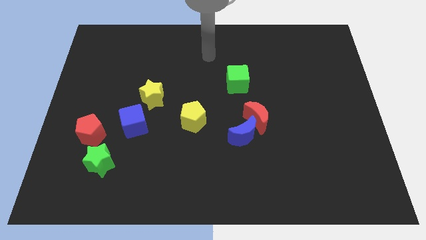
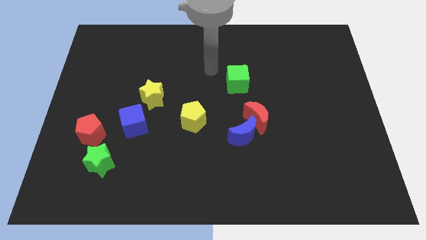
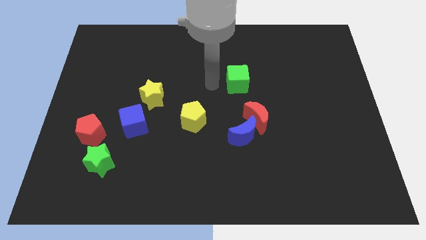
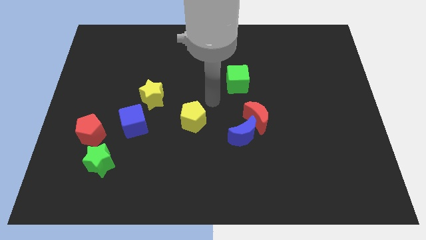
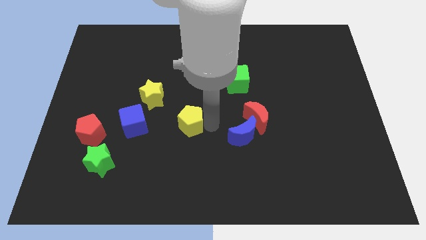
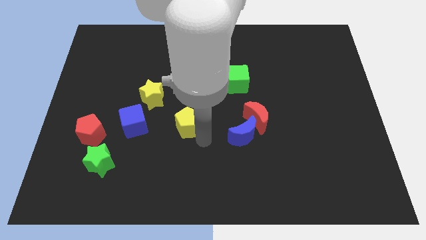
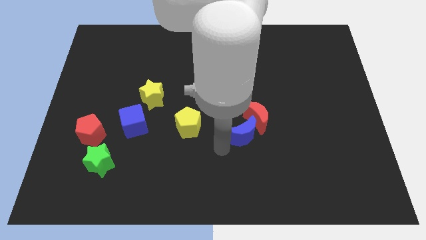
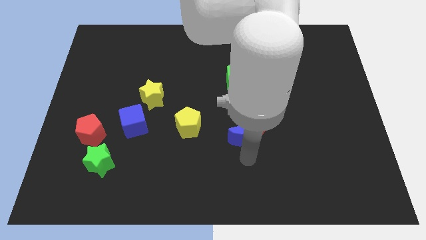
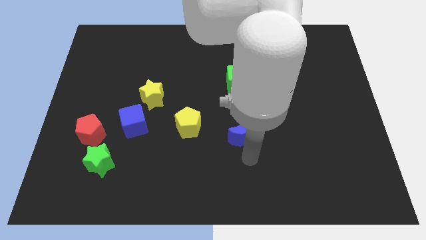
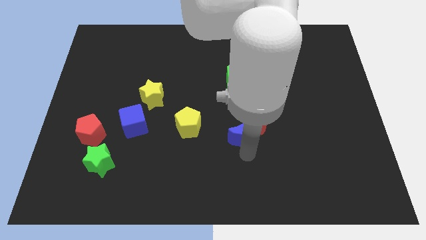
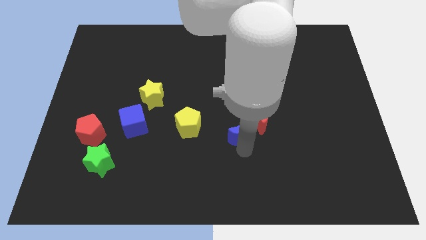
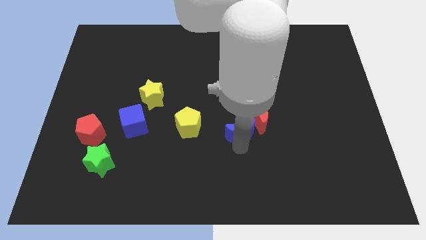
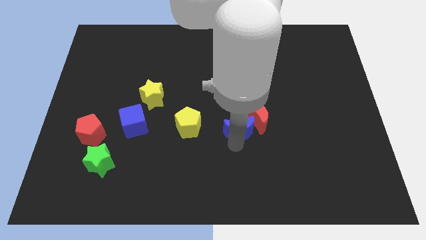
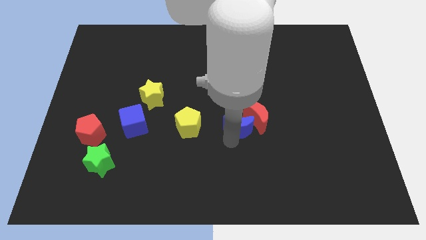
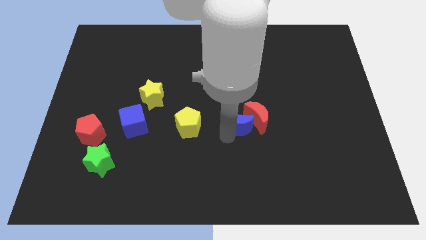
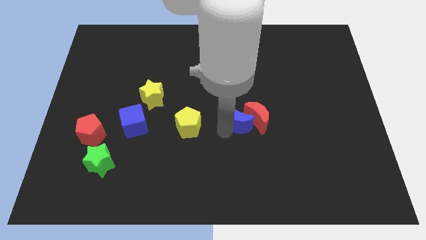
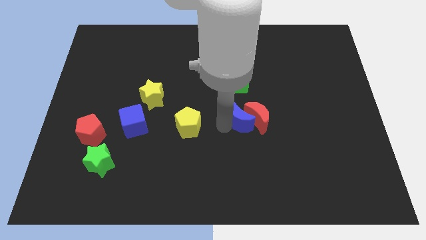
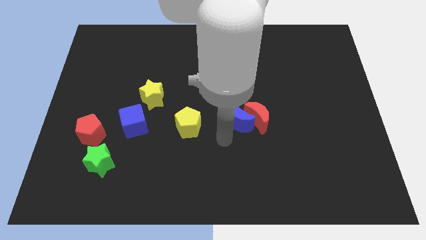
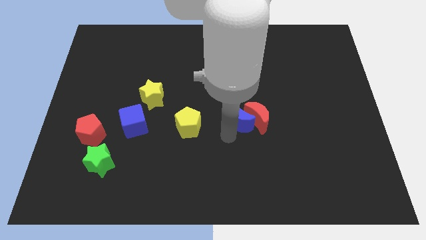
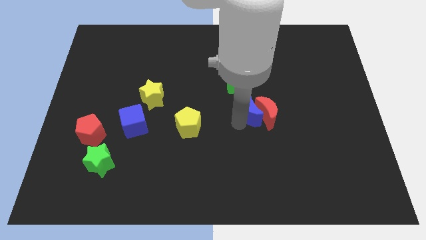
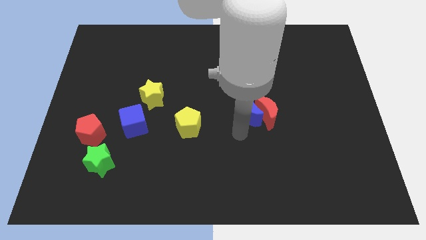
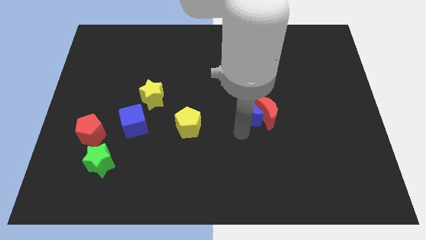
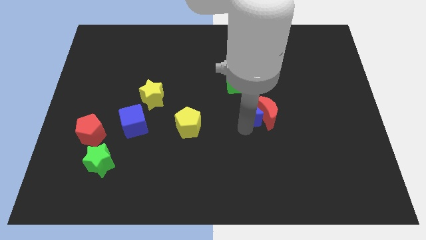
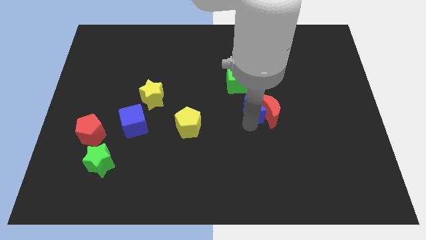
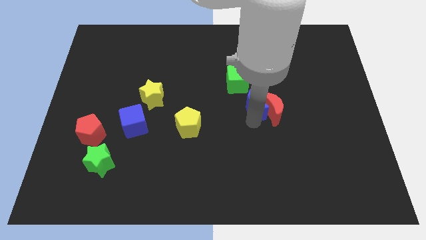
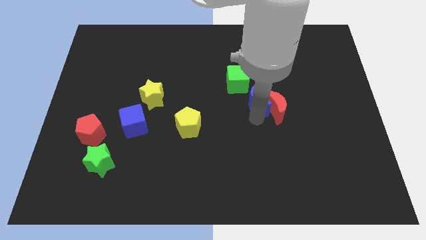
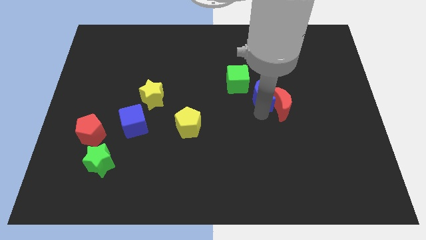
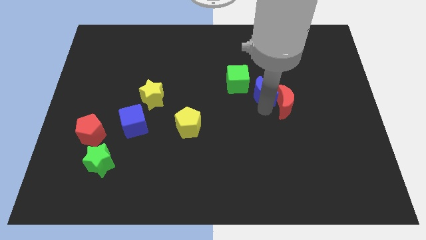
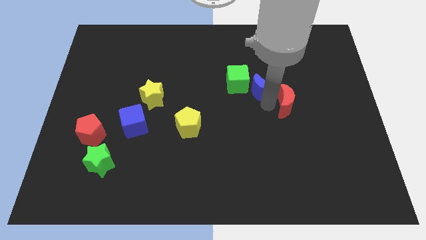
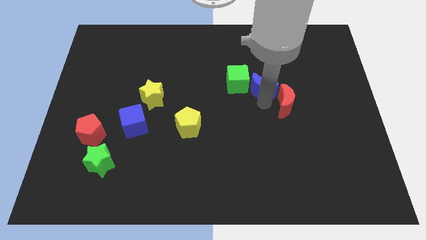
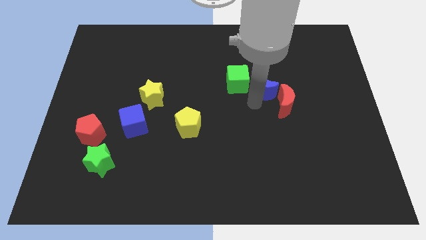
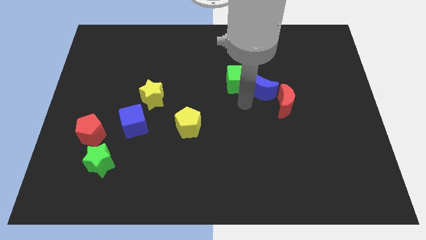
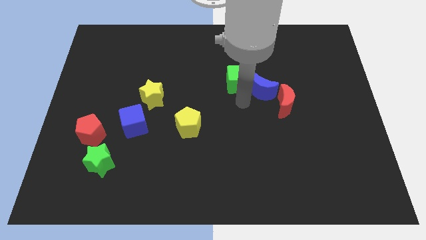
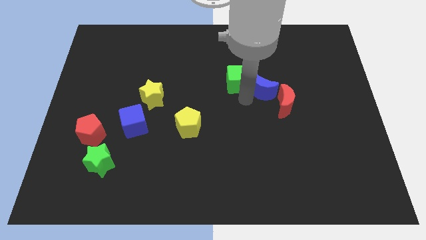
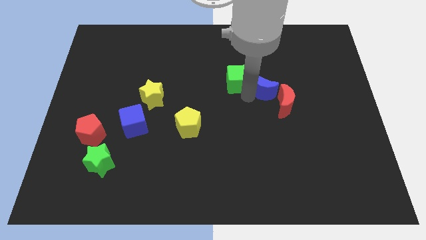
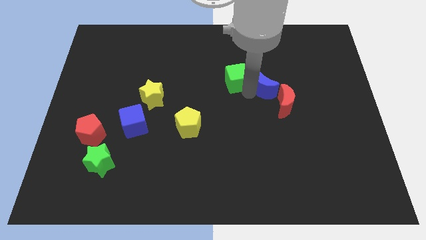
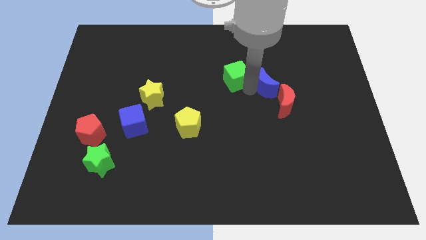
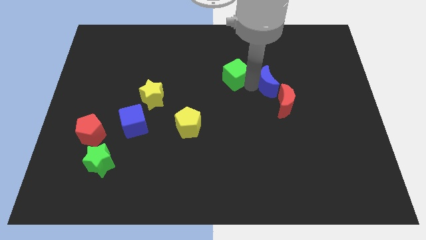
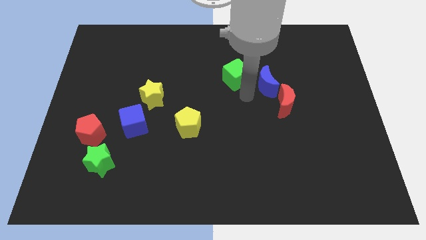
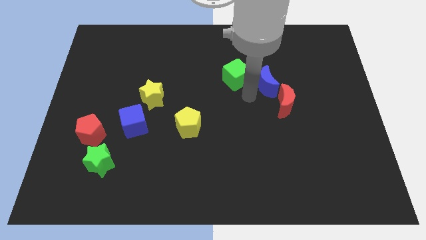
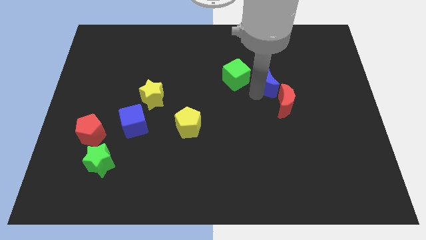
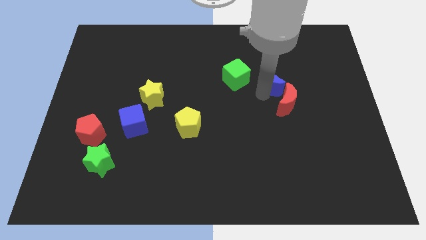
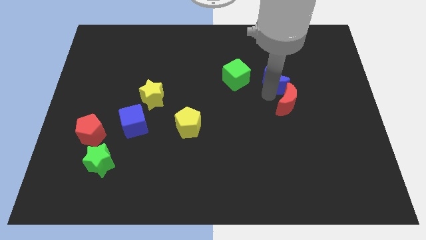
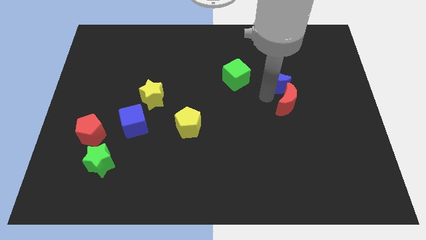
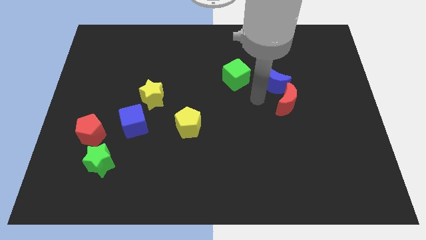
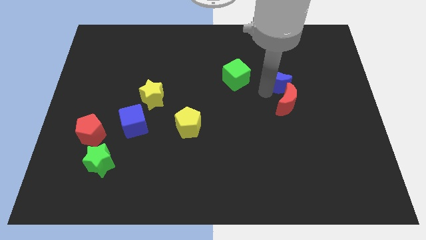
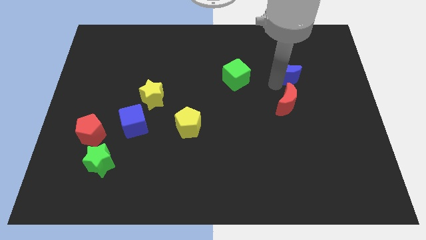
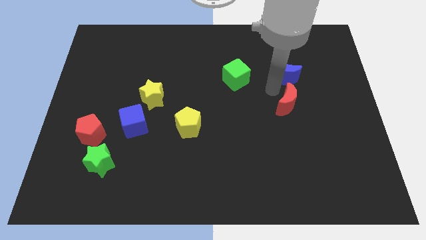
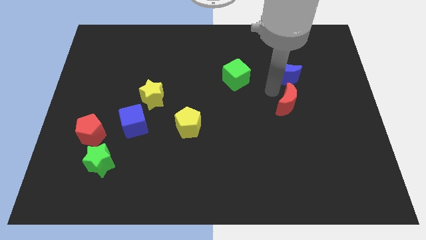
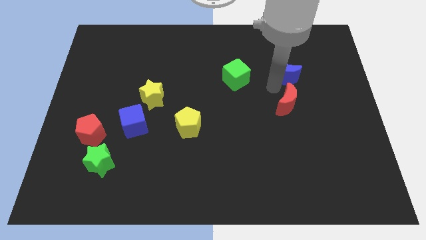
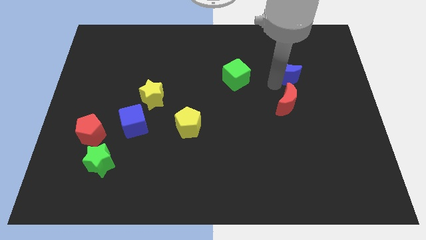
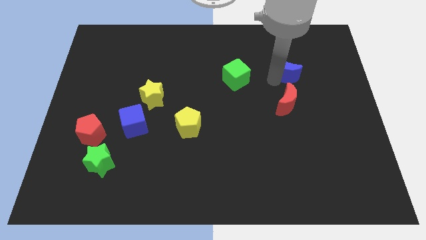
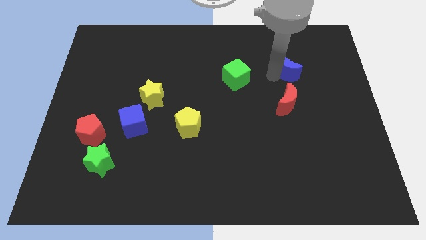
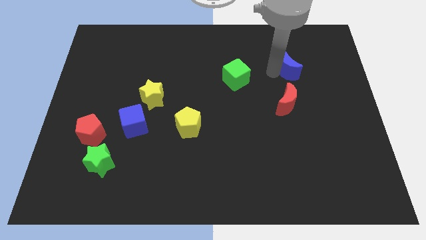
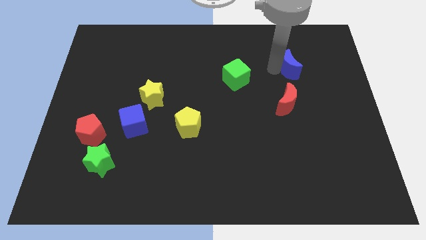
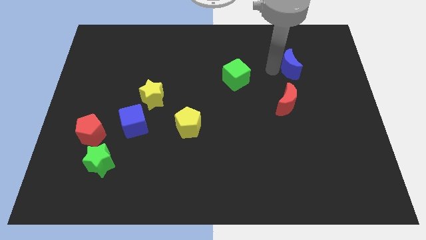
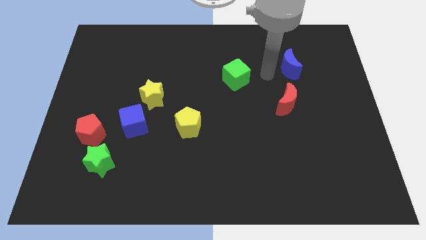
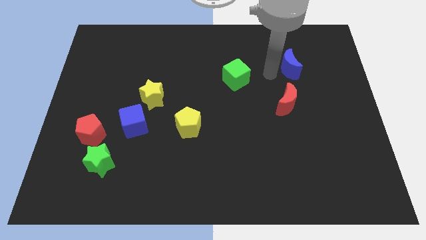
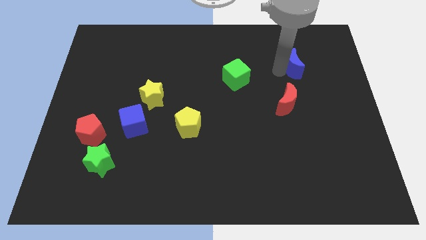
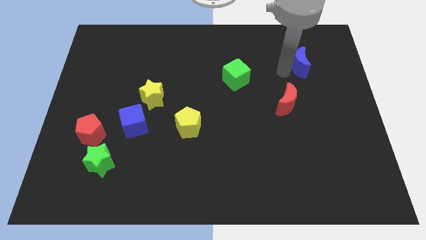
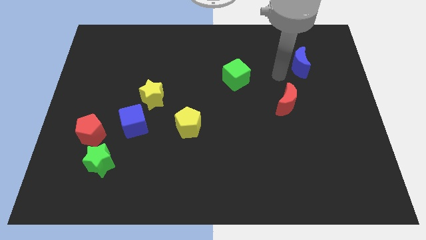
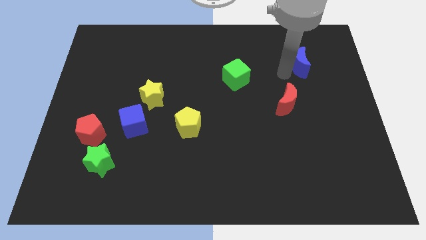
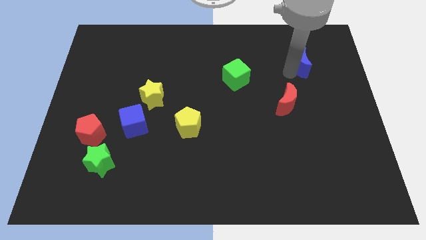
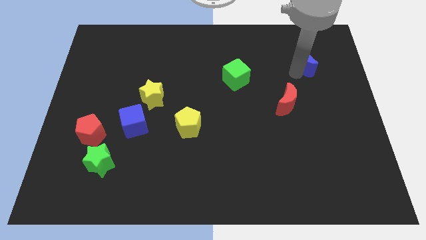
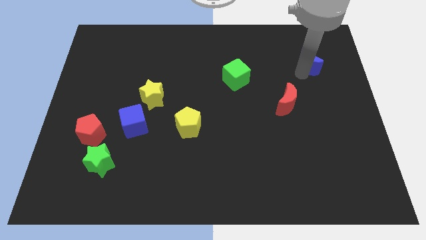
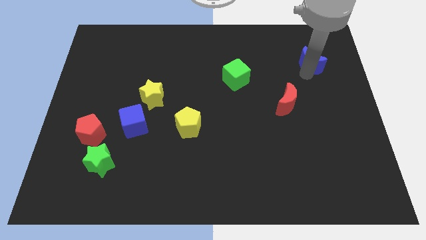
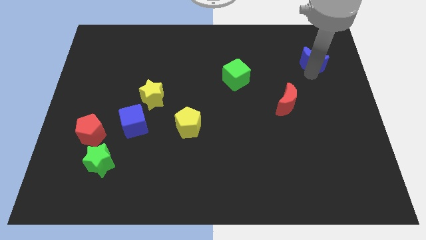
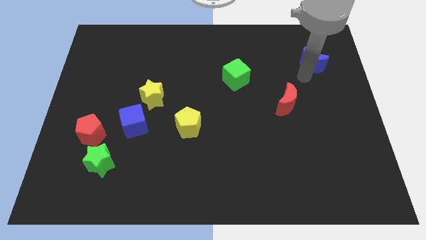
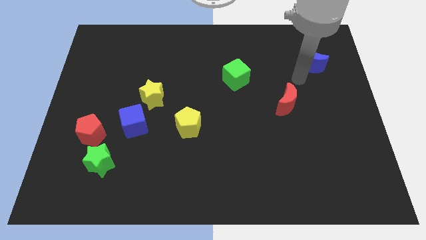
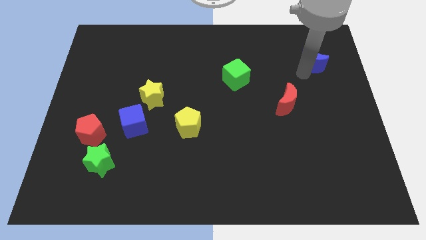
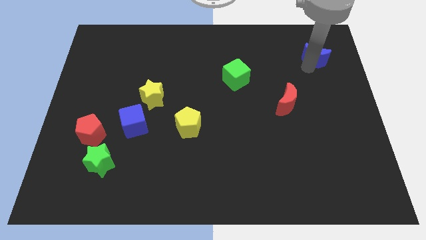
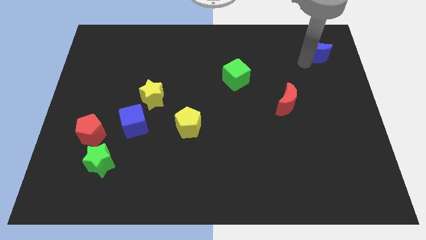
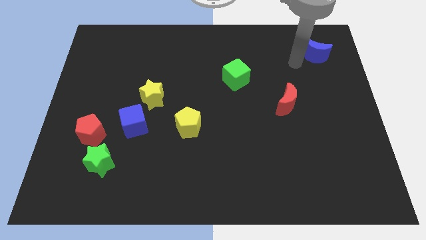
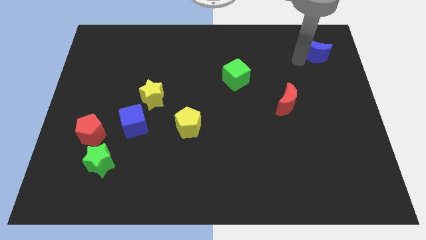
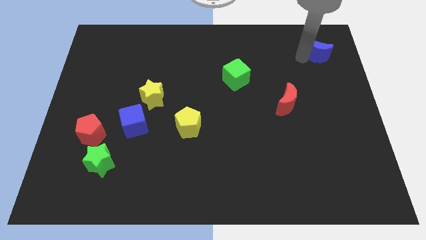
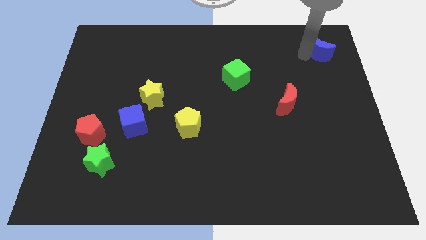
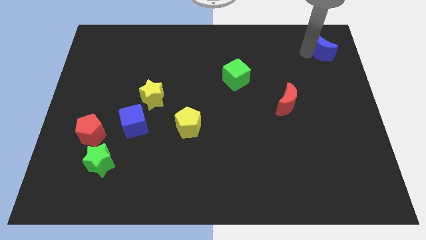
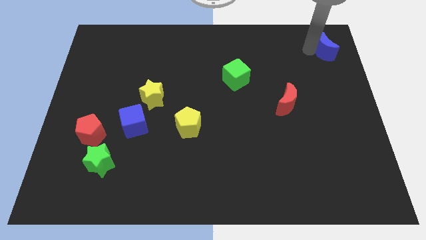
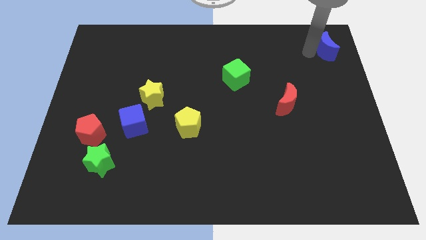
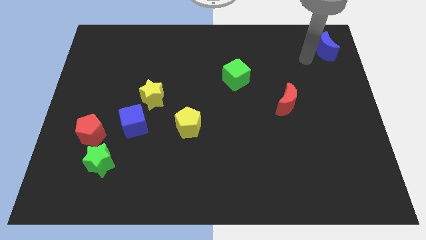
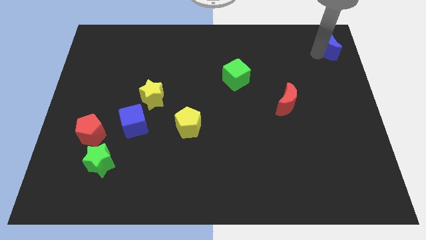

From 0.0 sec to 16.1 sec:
put the blue moon to the upper right corner
